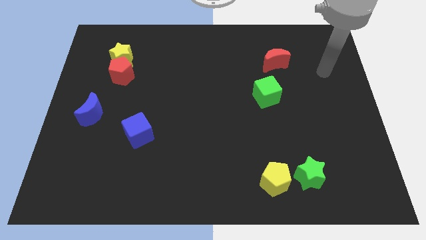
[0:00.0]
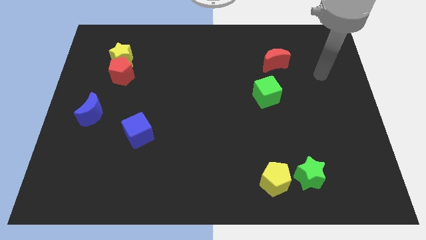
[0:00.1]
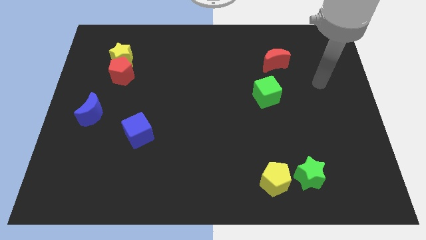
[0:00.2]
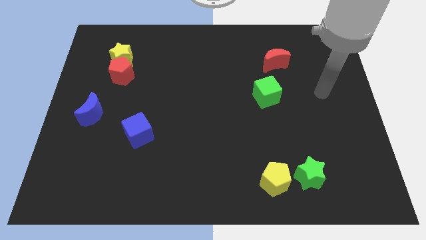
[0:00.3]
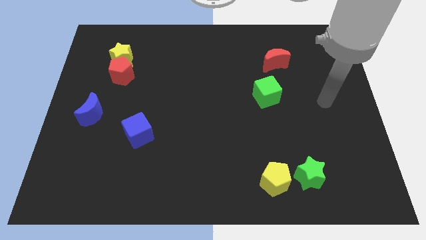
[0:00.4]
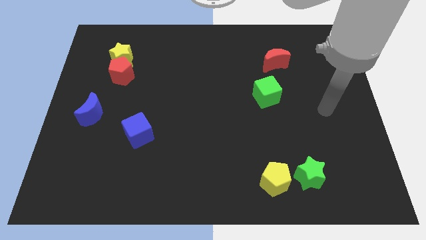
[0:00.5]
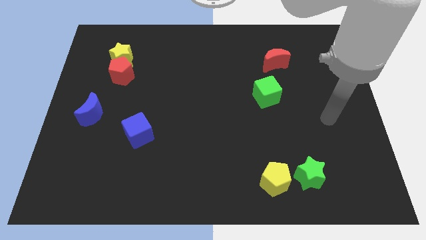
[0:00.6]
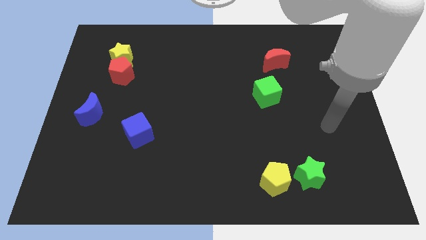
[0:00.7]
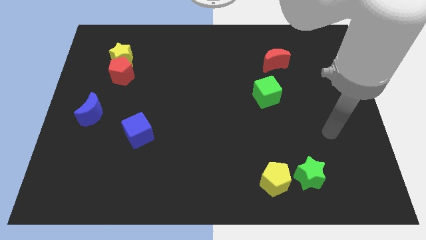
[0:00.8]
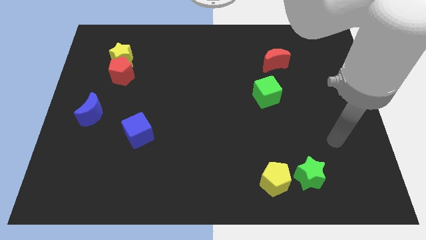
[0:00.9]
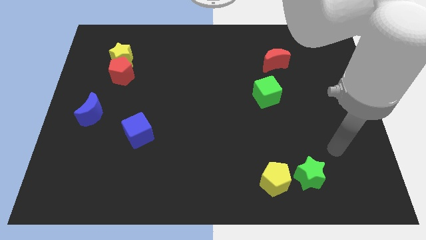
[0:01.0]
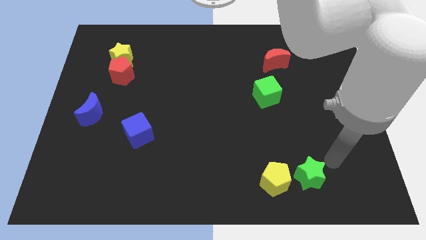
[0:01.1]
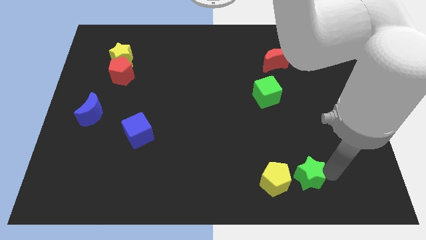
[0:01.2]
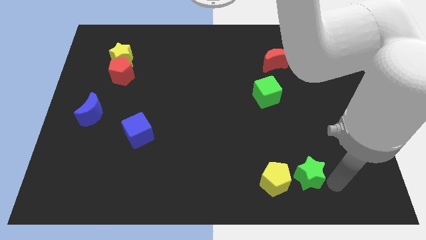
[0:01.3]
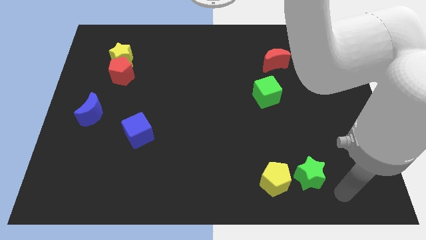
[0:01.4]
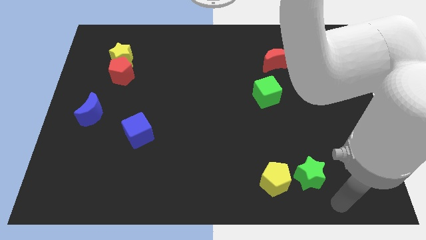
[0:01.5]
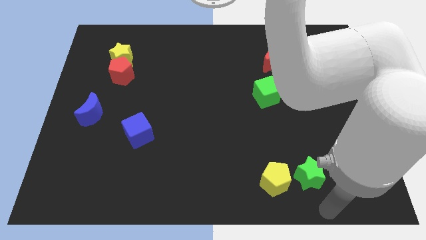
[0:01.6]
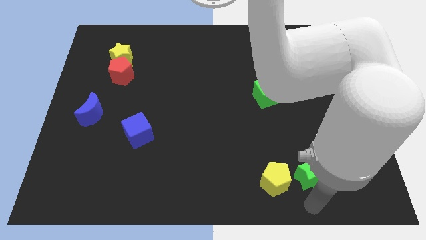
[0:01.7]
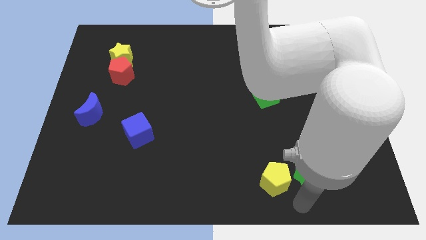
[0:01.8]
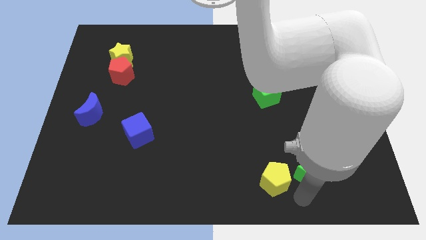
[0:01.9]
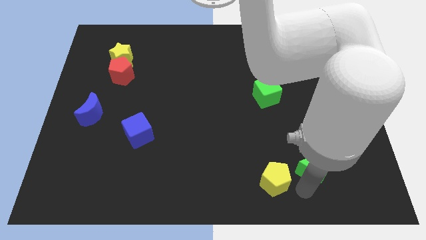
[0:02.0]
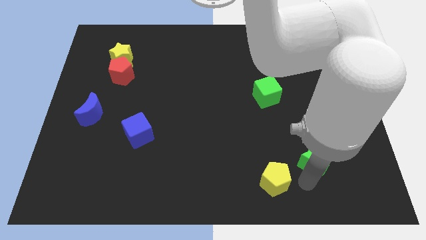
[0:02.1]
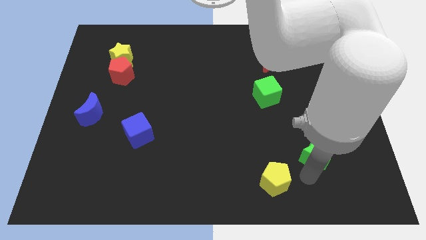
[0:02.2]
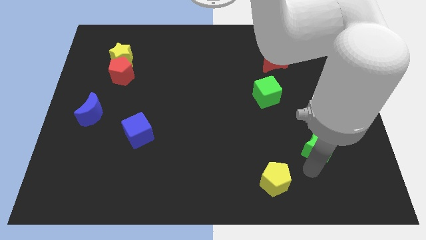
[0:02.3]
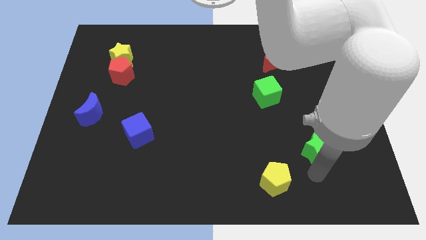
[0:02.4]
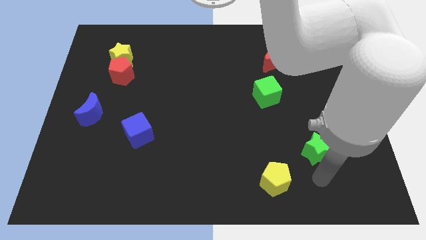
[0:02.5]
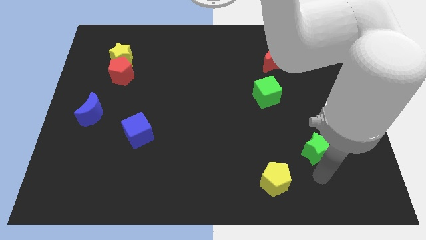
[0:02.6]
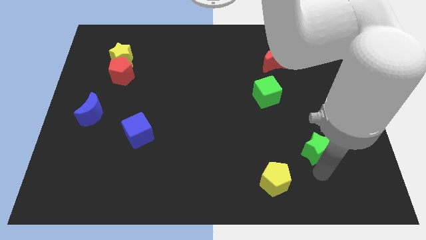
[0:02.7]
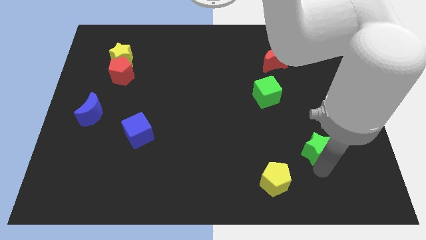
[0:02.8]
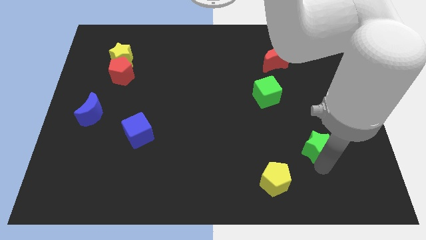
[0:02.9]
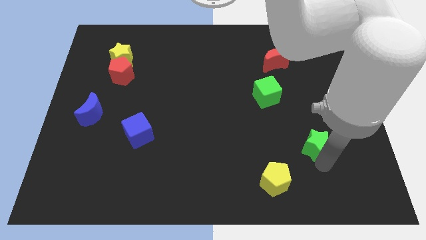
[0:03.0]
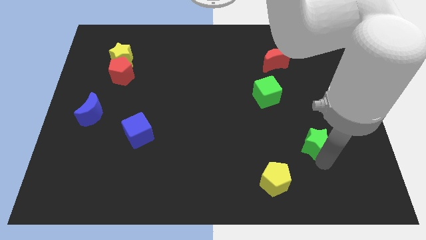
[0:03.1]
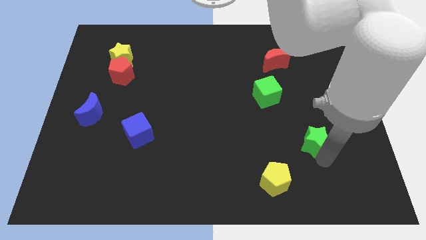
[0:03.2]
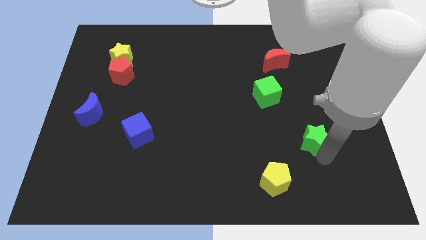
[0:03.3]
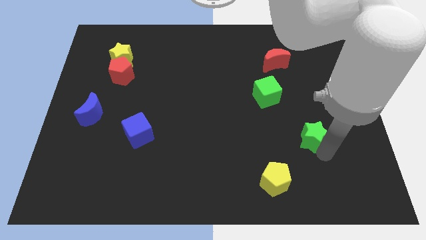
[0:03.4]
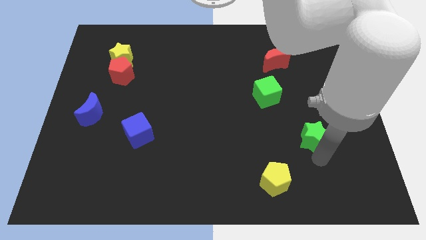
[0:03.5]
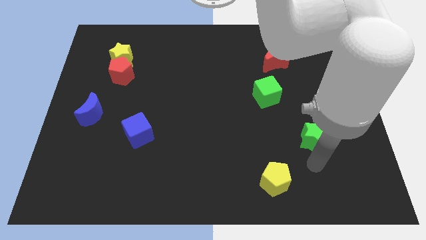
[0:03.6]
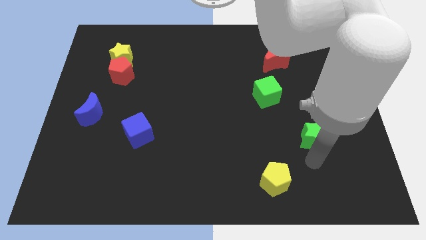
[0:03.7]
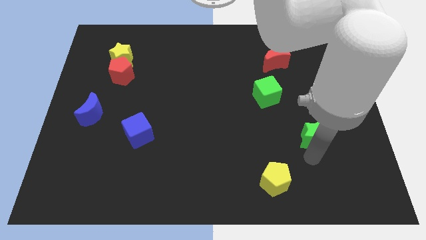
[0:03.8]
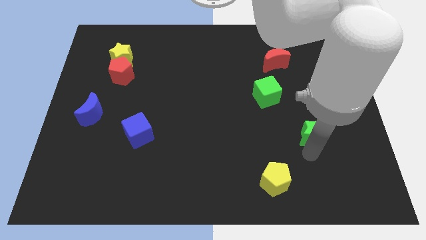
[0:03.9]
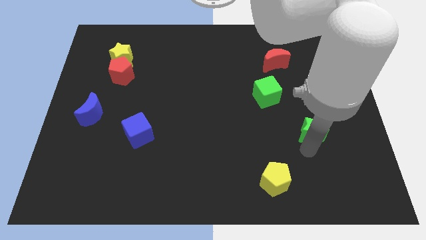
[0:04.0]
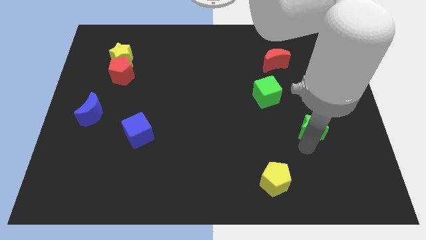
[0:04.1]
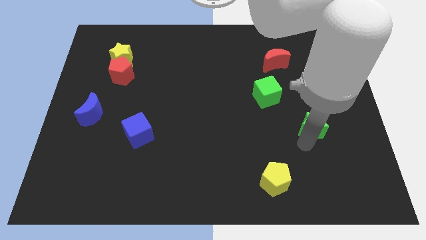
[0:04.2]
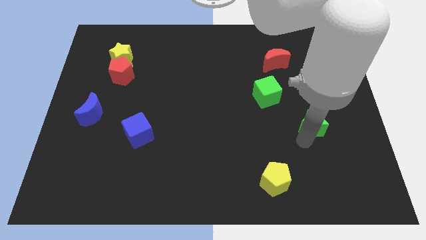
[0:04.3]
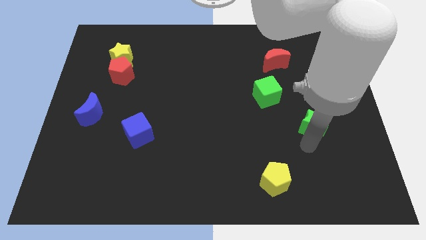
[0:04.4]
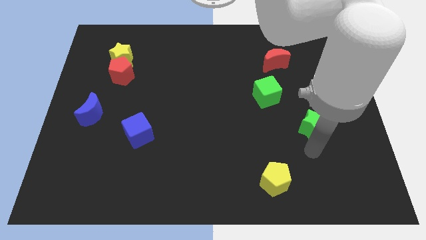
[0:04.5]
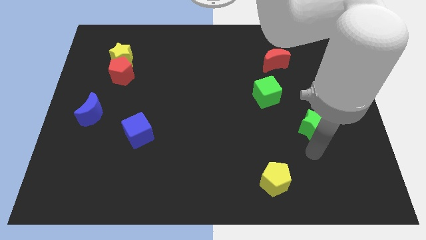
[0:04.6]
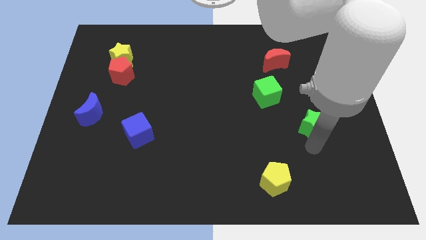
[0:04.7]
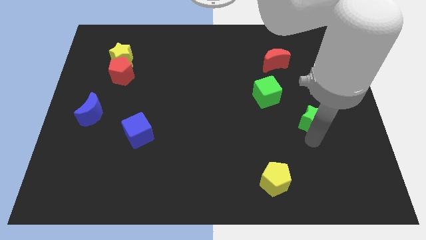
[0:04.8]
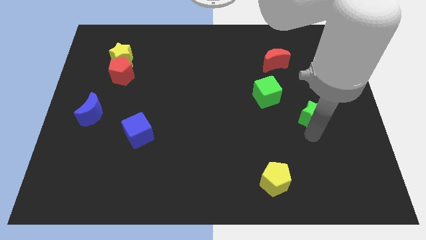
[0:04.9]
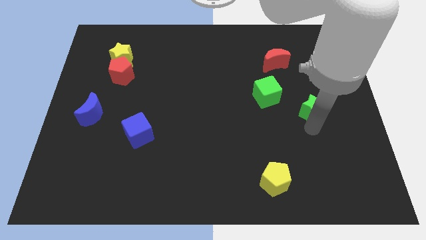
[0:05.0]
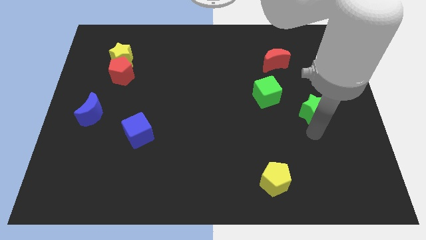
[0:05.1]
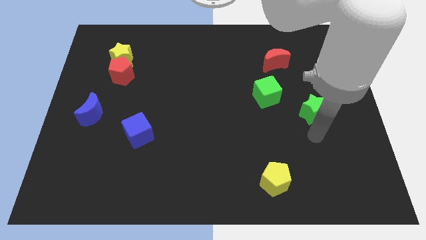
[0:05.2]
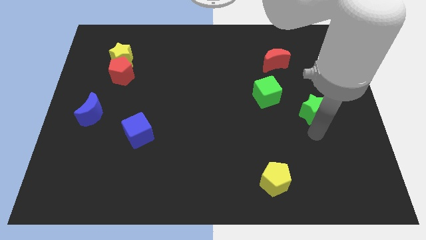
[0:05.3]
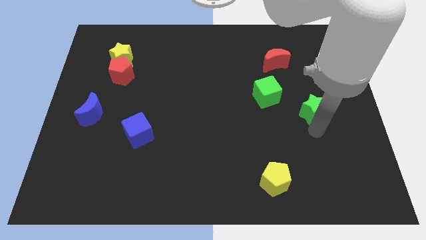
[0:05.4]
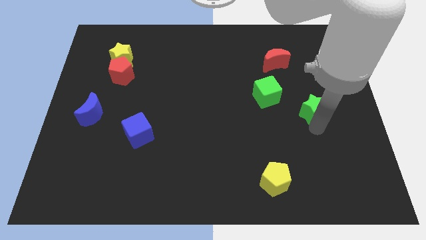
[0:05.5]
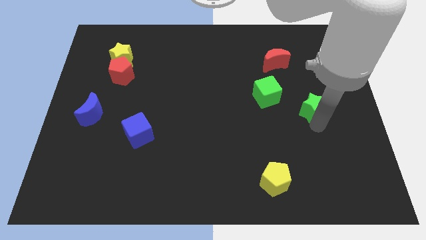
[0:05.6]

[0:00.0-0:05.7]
push the green star just right of the green cube

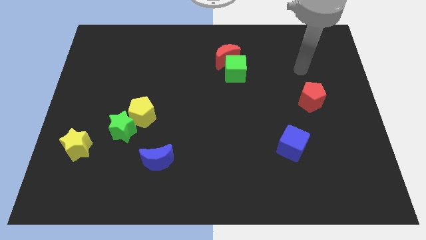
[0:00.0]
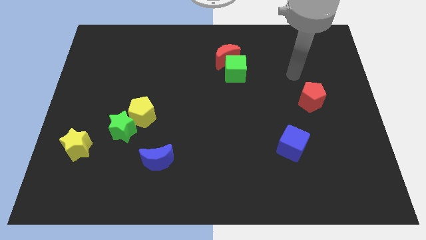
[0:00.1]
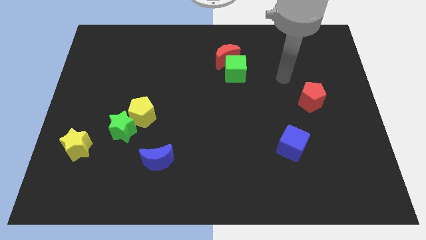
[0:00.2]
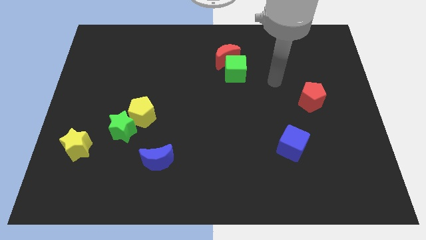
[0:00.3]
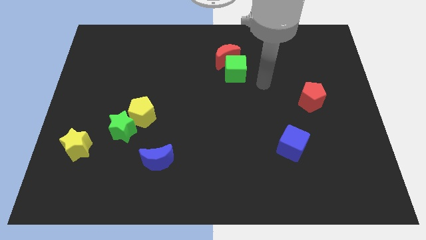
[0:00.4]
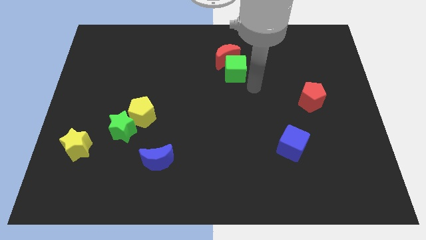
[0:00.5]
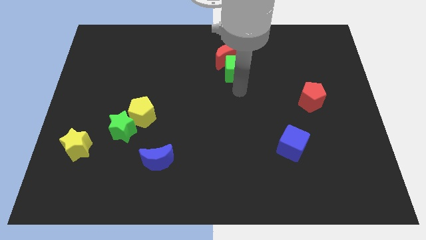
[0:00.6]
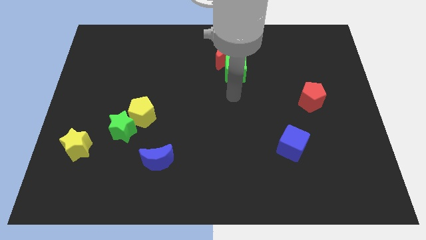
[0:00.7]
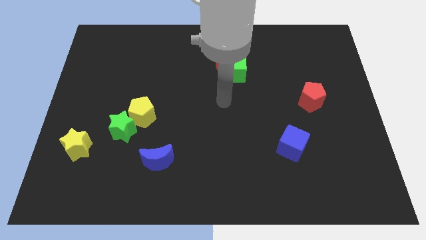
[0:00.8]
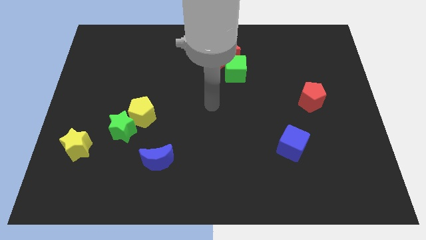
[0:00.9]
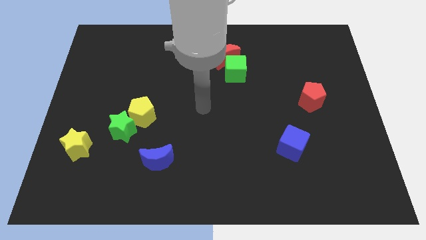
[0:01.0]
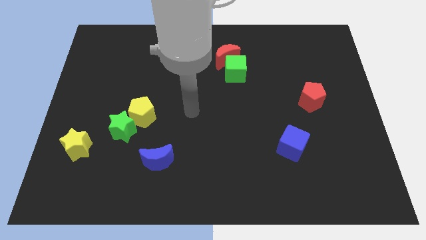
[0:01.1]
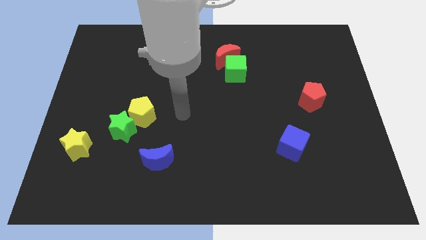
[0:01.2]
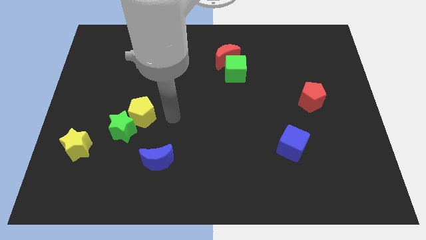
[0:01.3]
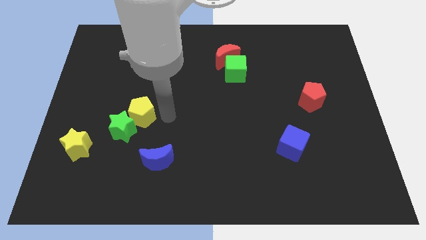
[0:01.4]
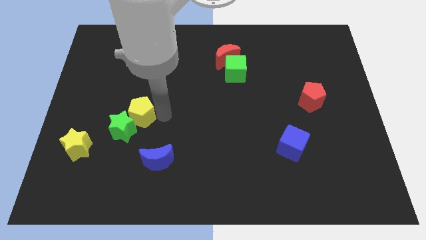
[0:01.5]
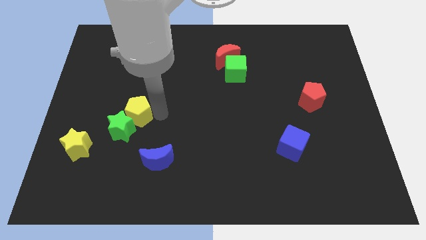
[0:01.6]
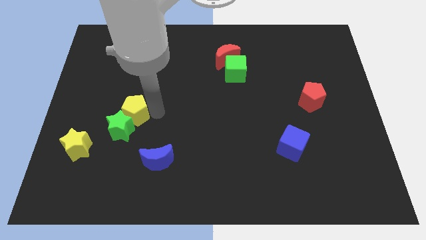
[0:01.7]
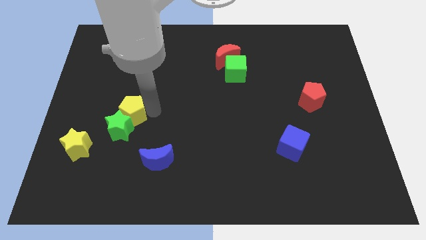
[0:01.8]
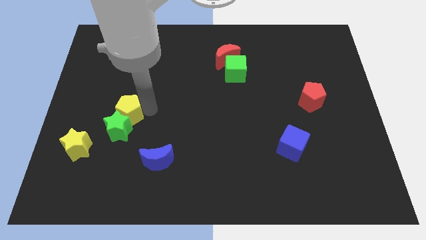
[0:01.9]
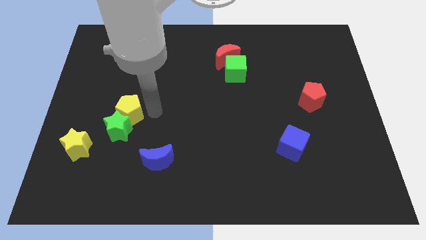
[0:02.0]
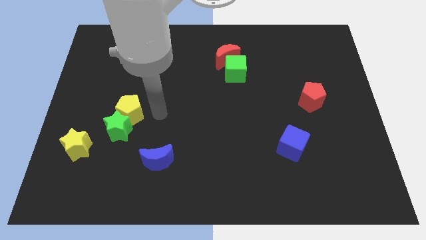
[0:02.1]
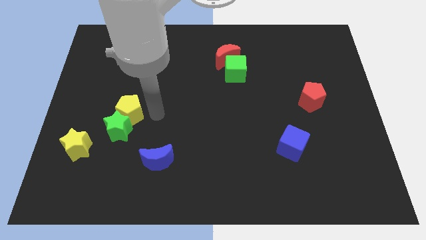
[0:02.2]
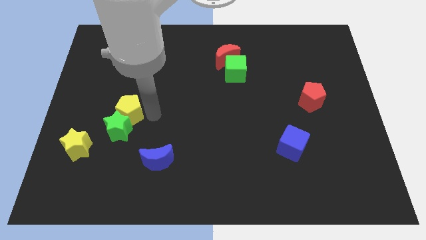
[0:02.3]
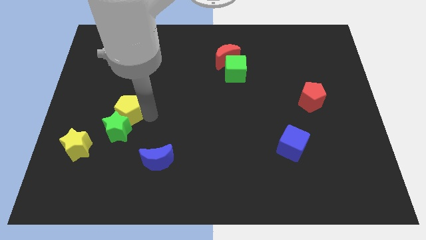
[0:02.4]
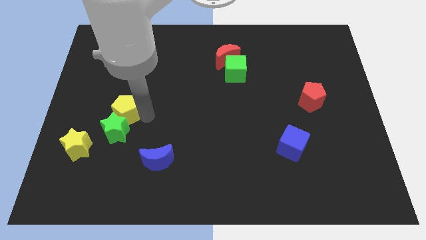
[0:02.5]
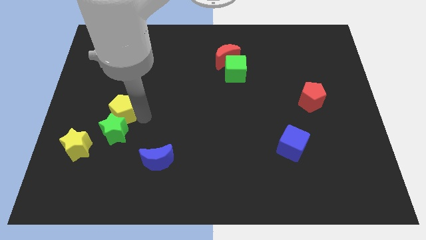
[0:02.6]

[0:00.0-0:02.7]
move the yellow pentagon diagonally up and to the left of the green star
